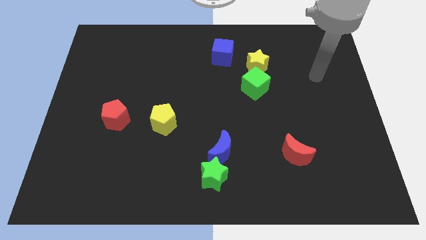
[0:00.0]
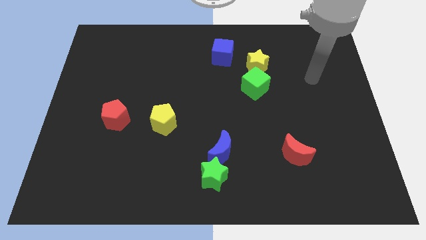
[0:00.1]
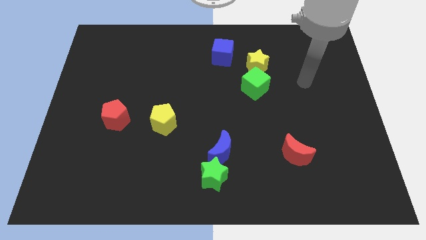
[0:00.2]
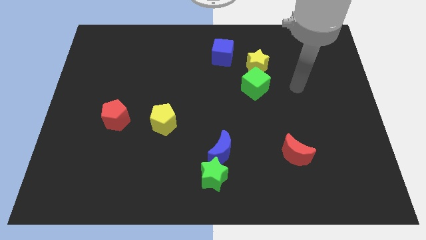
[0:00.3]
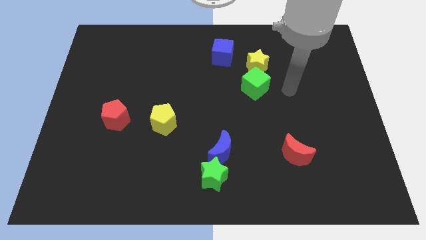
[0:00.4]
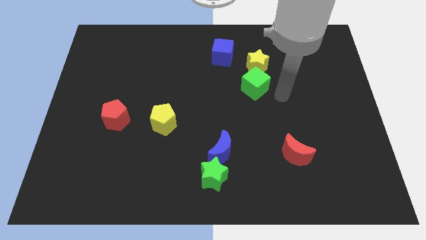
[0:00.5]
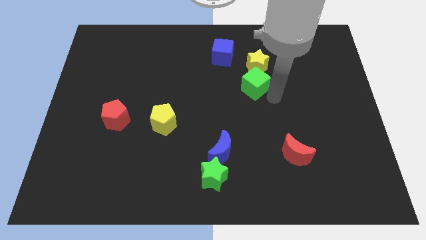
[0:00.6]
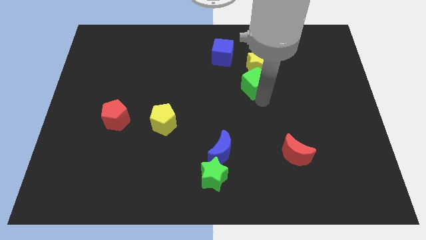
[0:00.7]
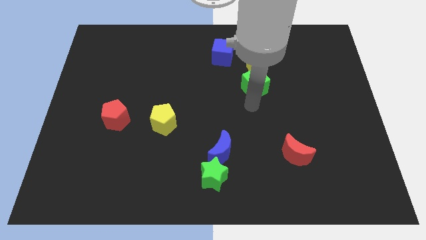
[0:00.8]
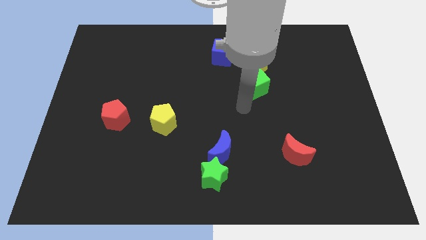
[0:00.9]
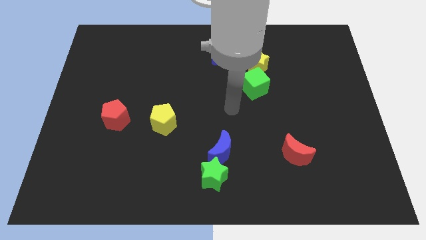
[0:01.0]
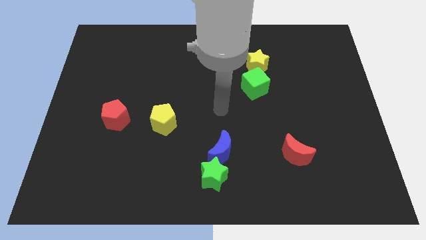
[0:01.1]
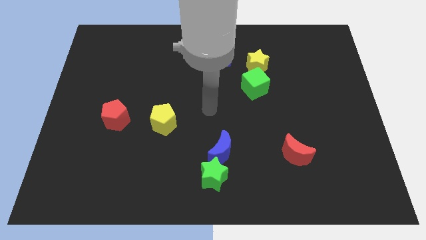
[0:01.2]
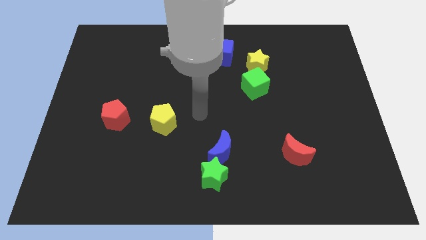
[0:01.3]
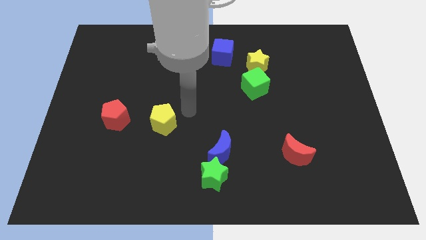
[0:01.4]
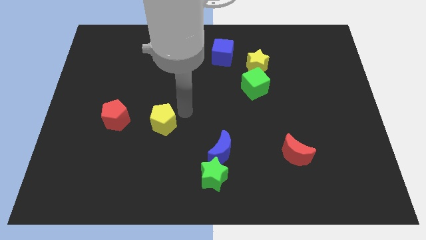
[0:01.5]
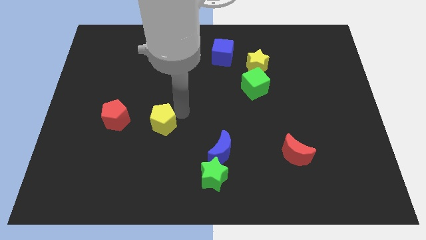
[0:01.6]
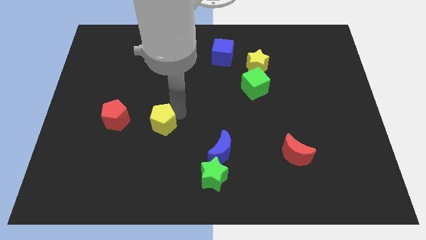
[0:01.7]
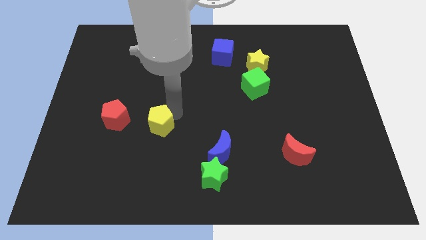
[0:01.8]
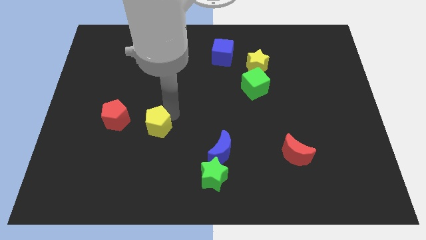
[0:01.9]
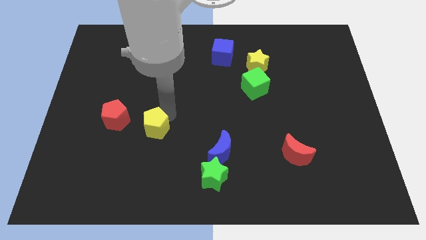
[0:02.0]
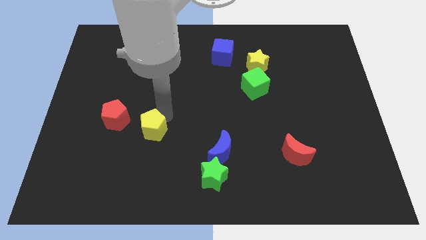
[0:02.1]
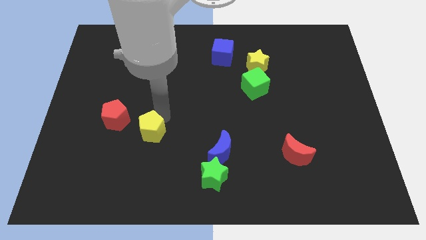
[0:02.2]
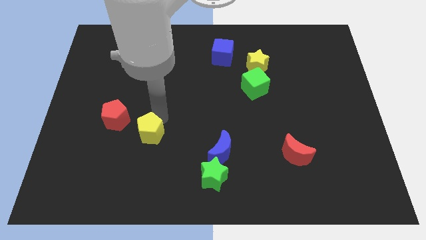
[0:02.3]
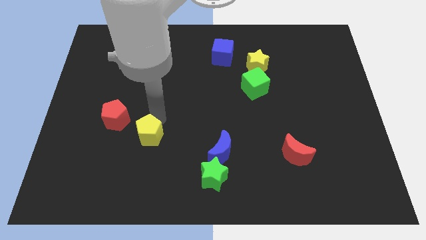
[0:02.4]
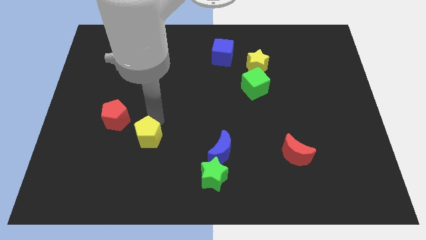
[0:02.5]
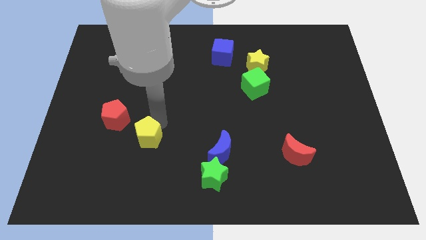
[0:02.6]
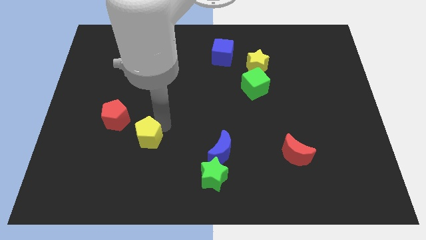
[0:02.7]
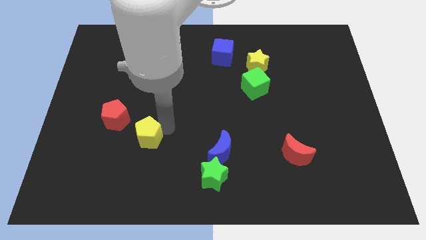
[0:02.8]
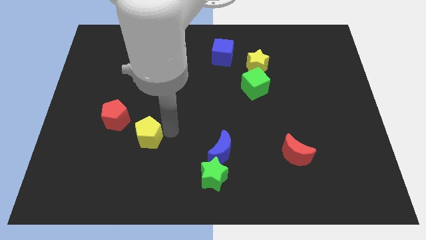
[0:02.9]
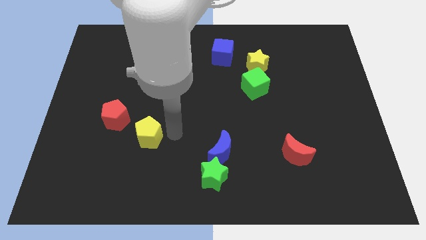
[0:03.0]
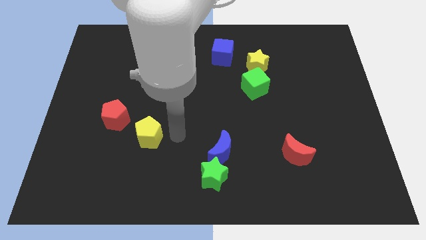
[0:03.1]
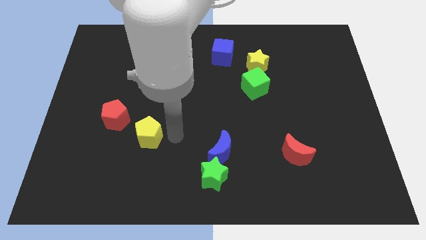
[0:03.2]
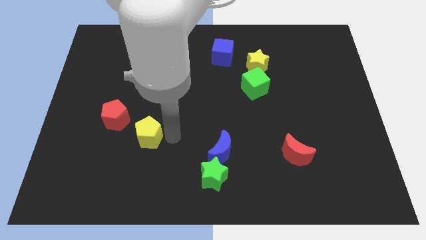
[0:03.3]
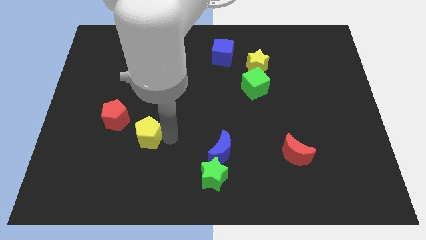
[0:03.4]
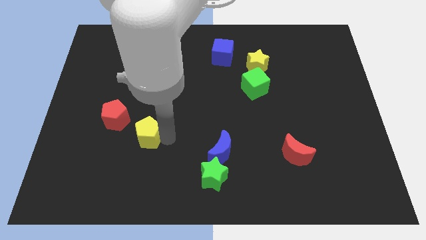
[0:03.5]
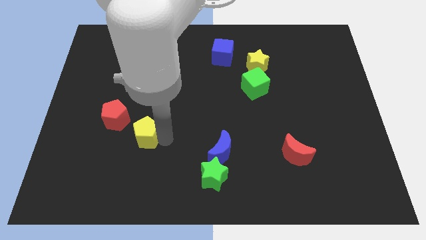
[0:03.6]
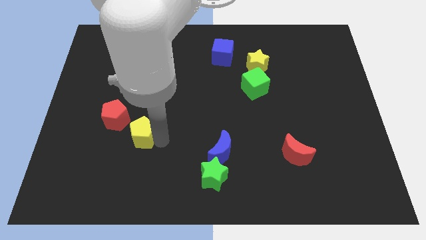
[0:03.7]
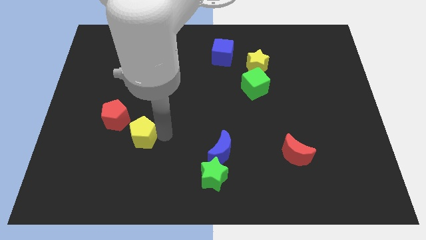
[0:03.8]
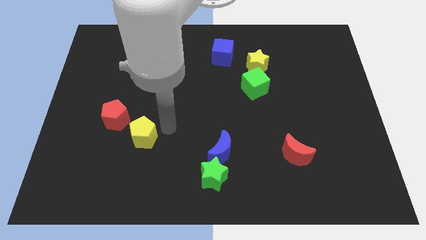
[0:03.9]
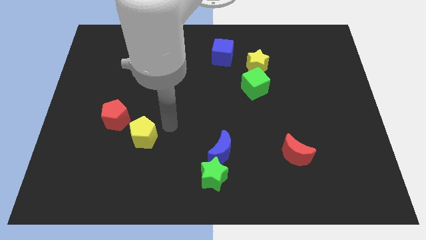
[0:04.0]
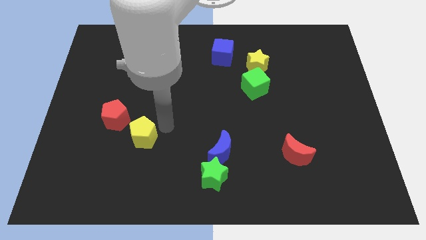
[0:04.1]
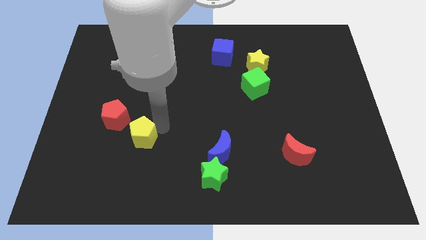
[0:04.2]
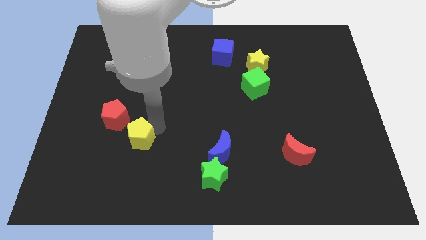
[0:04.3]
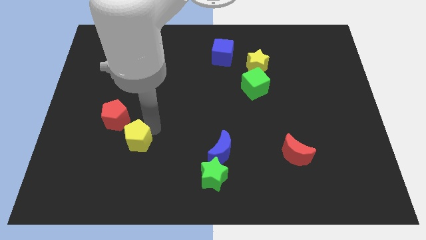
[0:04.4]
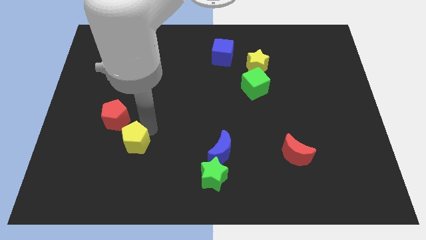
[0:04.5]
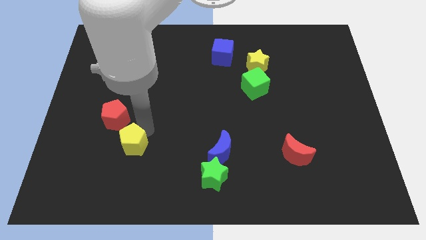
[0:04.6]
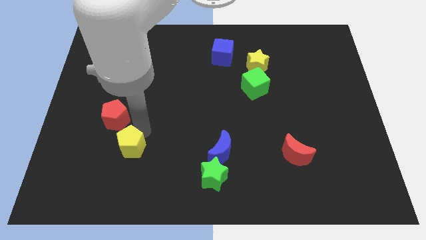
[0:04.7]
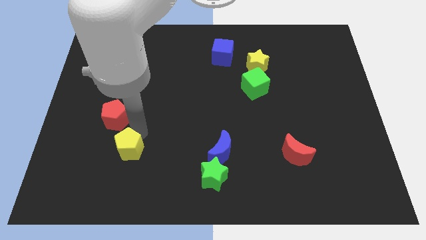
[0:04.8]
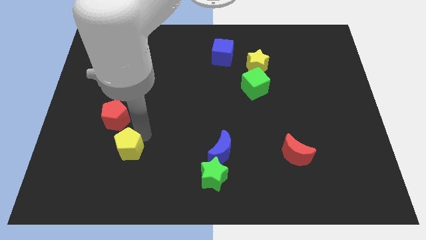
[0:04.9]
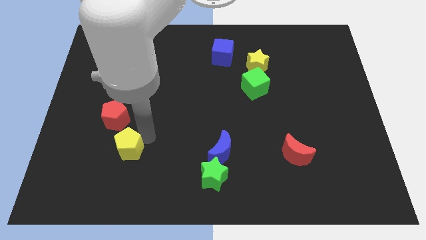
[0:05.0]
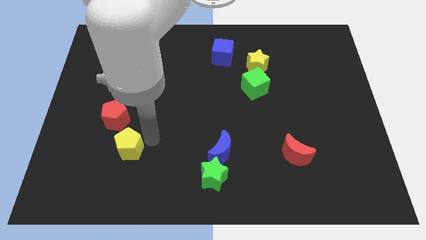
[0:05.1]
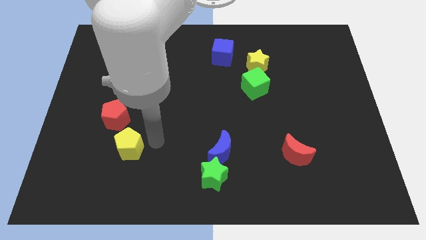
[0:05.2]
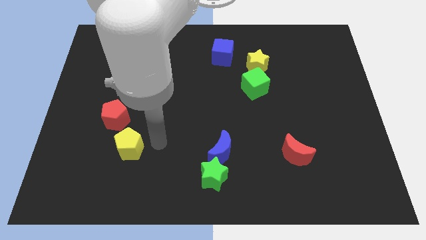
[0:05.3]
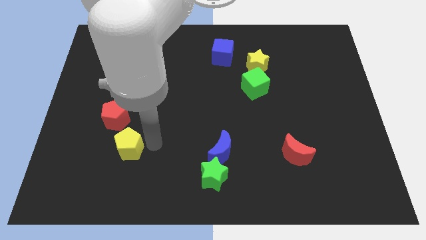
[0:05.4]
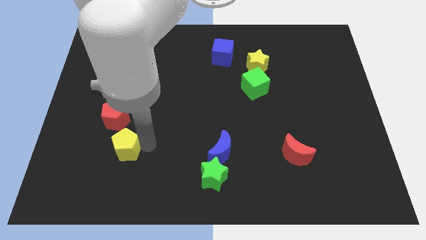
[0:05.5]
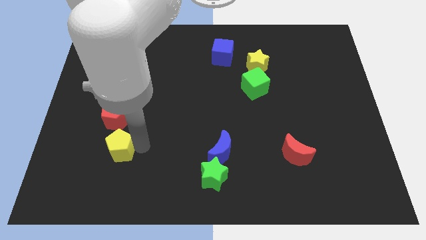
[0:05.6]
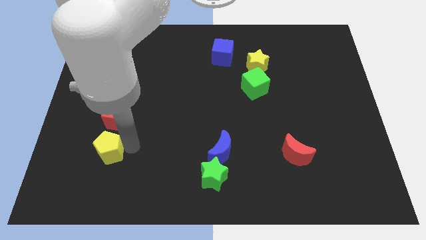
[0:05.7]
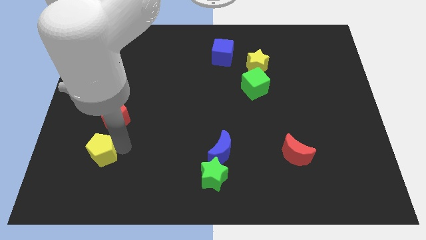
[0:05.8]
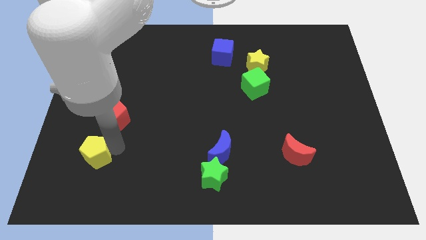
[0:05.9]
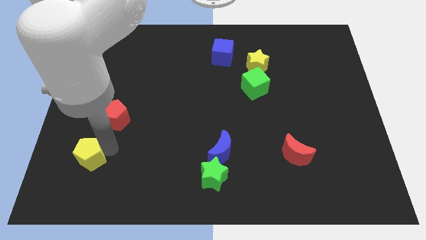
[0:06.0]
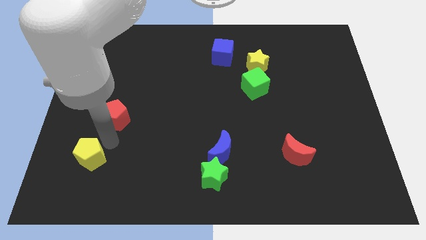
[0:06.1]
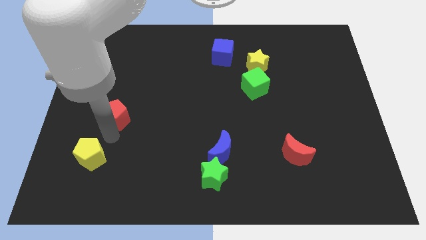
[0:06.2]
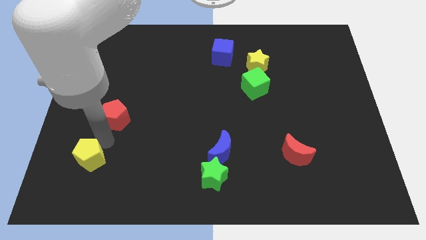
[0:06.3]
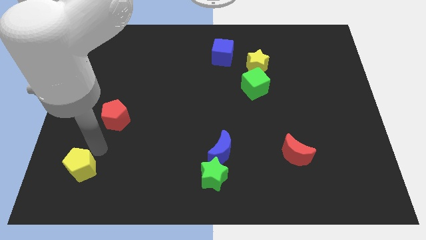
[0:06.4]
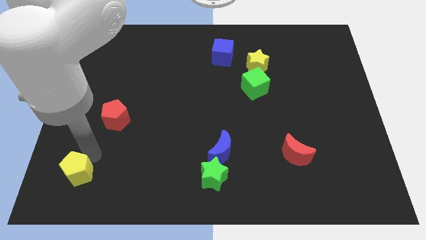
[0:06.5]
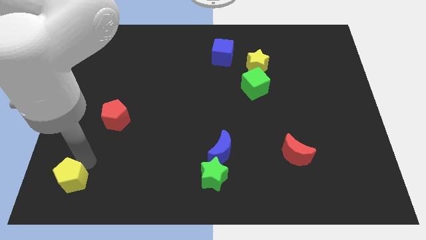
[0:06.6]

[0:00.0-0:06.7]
move the yellow pentagon to the bottom left of the board
